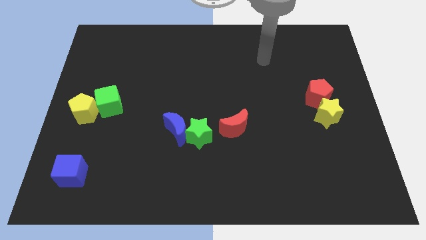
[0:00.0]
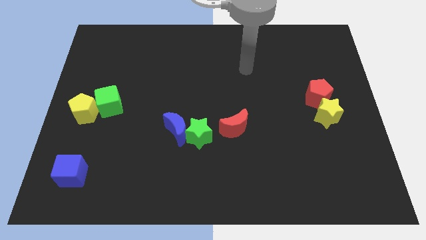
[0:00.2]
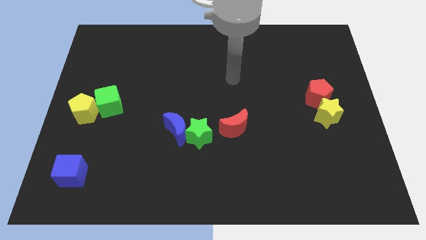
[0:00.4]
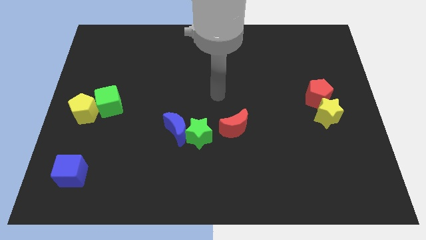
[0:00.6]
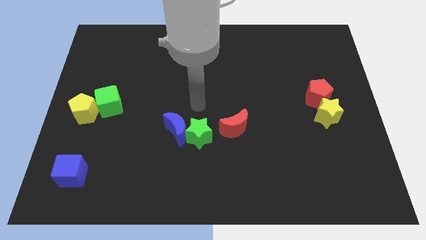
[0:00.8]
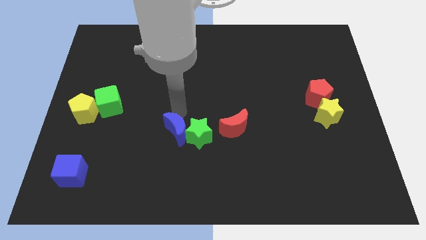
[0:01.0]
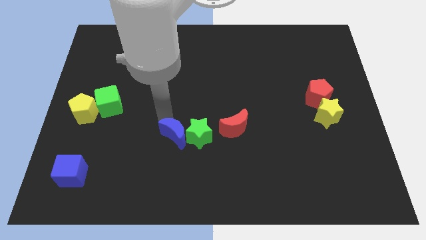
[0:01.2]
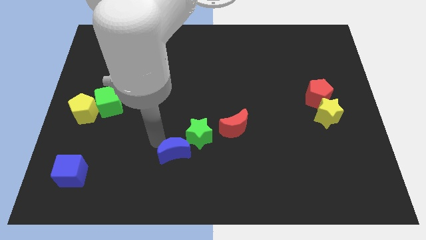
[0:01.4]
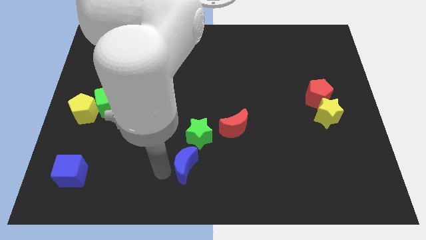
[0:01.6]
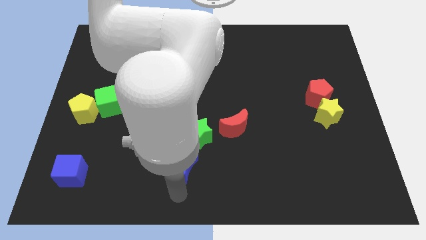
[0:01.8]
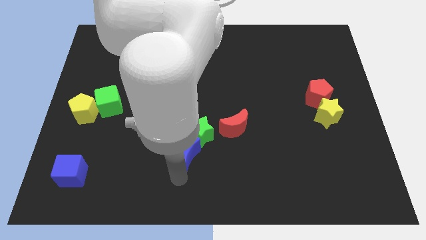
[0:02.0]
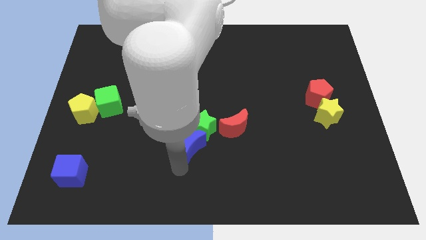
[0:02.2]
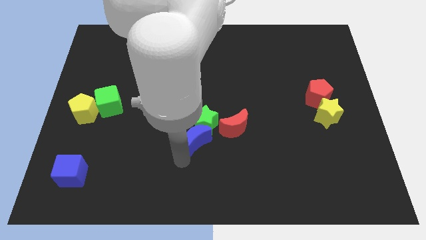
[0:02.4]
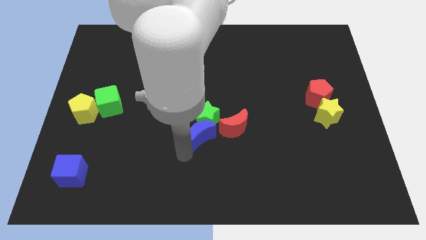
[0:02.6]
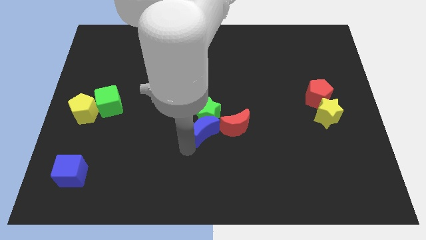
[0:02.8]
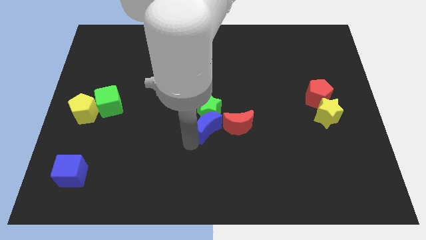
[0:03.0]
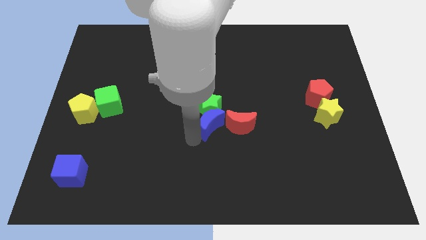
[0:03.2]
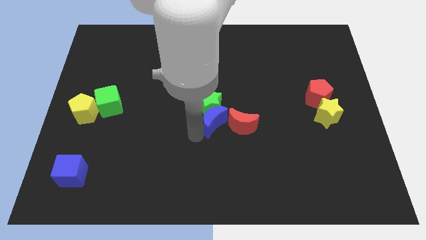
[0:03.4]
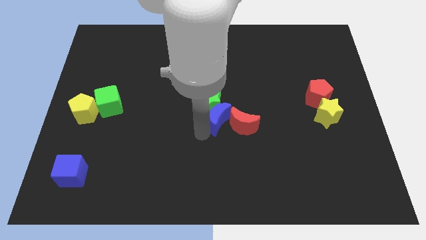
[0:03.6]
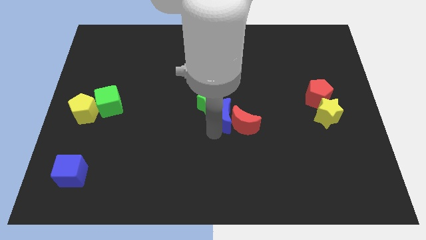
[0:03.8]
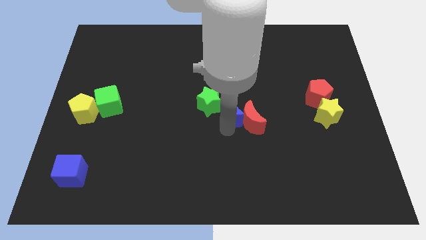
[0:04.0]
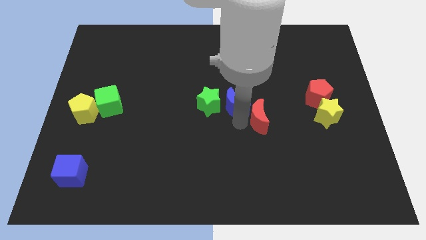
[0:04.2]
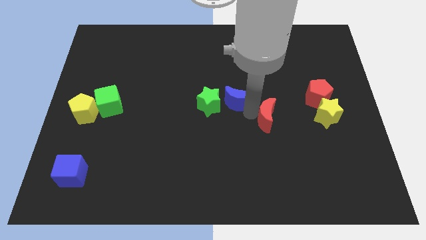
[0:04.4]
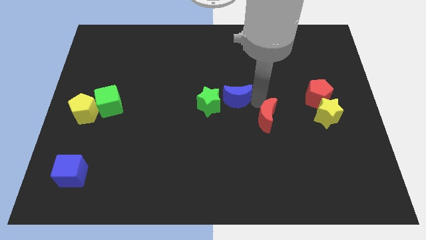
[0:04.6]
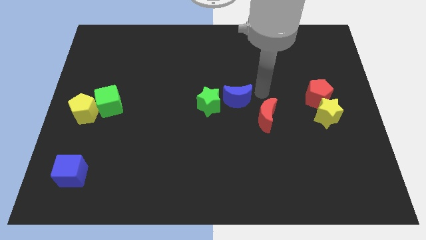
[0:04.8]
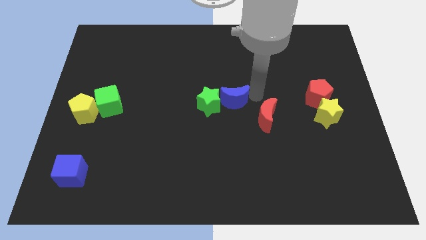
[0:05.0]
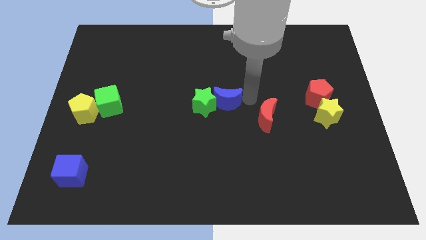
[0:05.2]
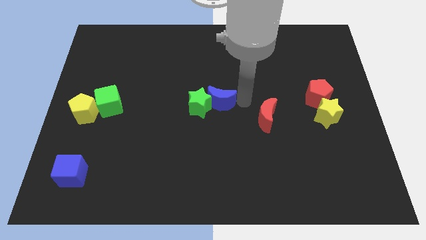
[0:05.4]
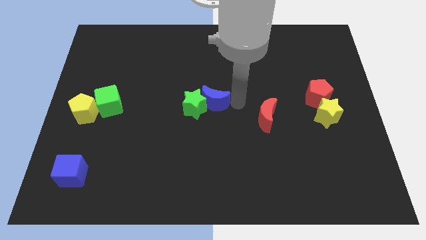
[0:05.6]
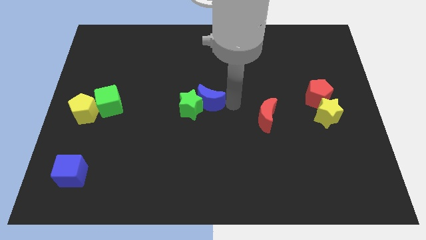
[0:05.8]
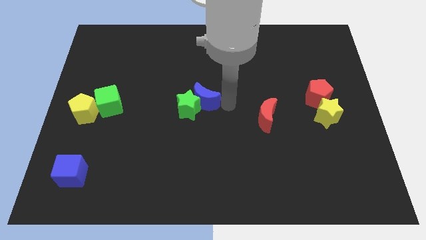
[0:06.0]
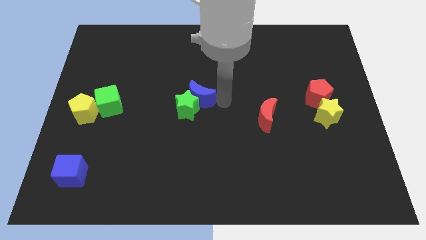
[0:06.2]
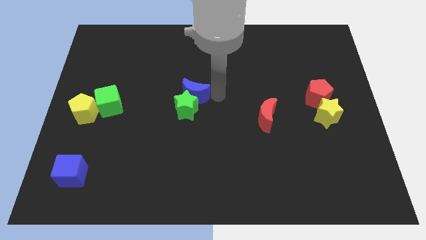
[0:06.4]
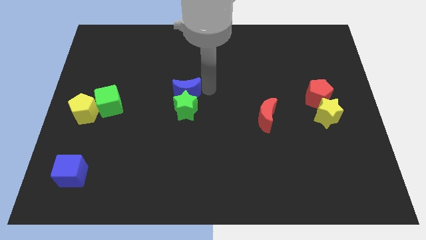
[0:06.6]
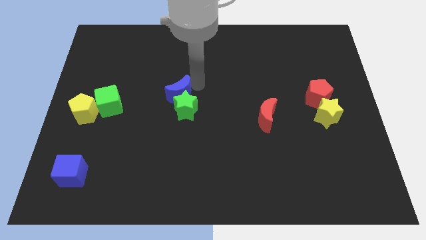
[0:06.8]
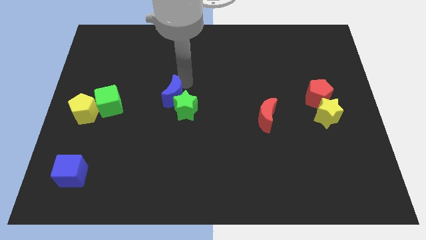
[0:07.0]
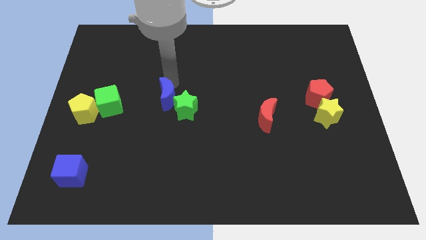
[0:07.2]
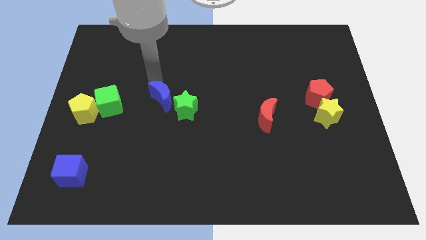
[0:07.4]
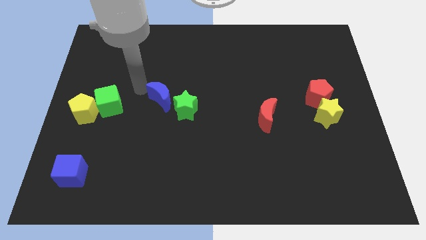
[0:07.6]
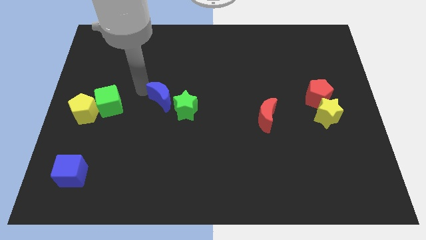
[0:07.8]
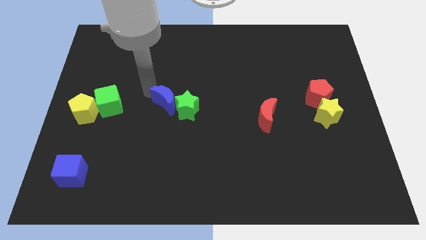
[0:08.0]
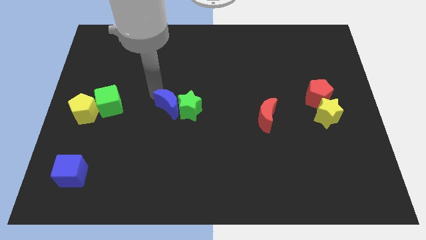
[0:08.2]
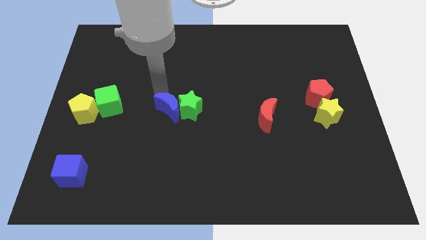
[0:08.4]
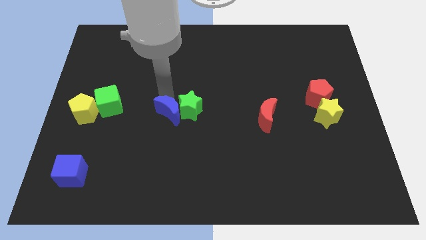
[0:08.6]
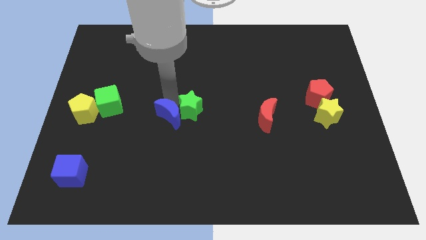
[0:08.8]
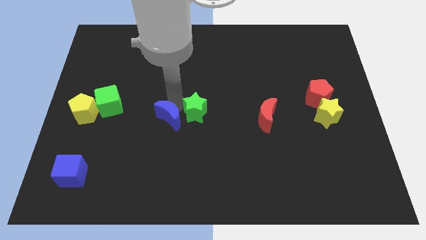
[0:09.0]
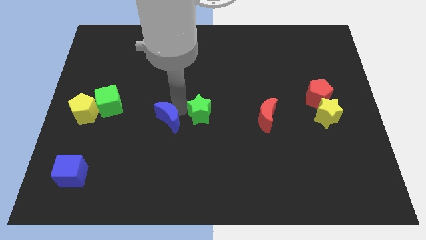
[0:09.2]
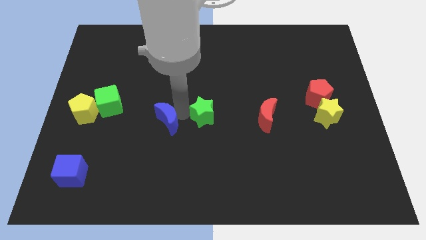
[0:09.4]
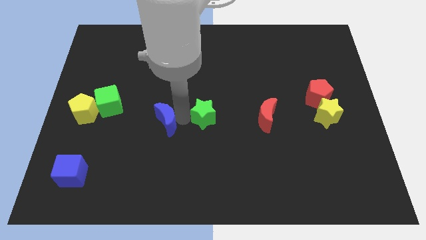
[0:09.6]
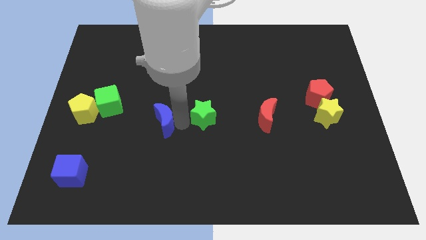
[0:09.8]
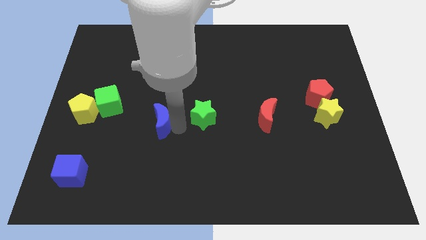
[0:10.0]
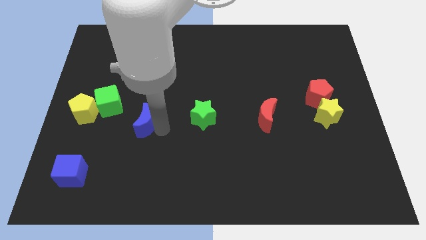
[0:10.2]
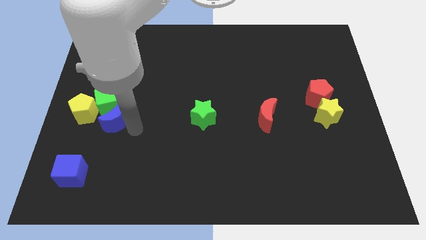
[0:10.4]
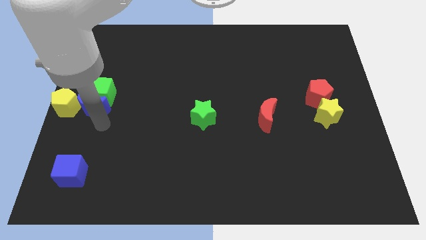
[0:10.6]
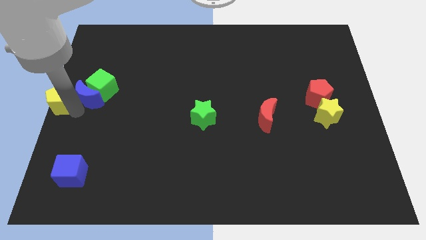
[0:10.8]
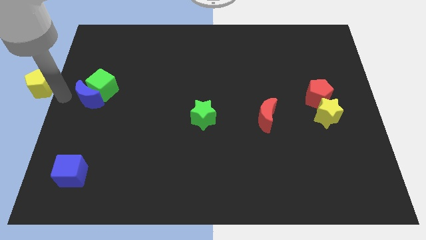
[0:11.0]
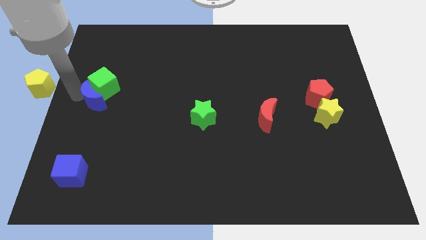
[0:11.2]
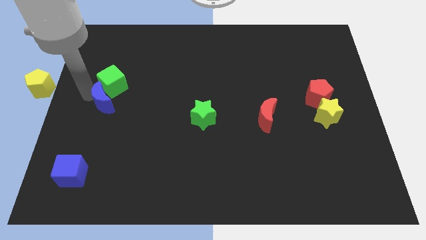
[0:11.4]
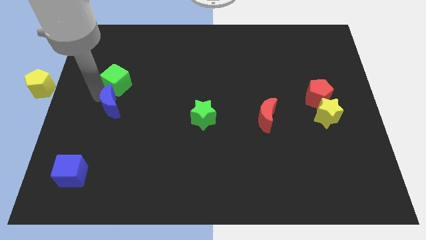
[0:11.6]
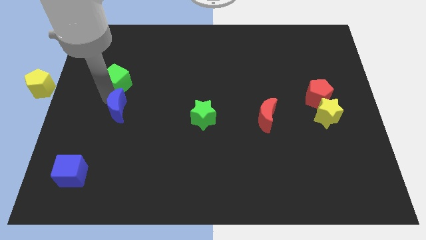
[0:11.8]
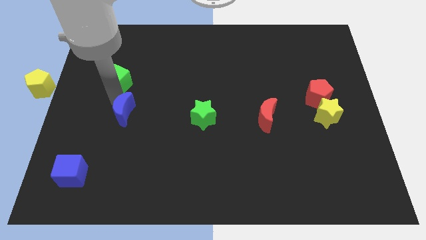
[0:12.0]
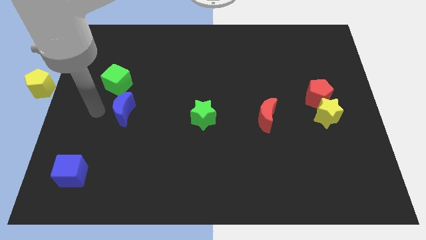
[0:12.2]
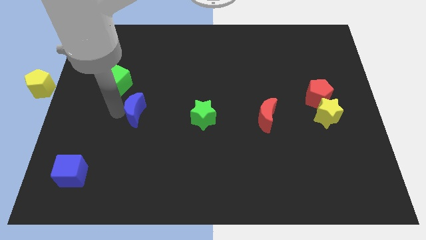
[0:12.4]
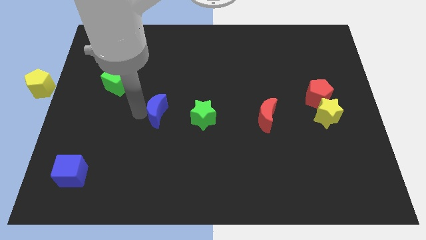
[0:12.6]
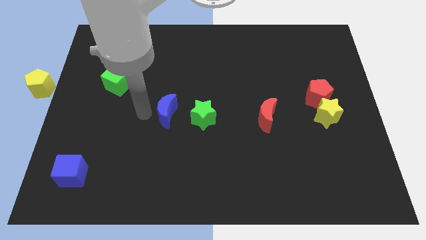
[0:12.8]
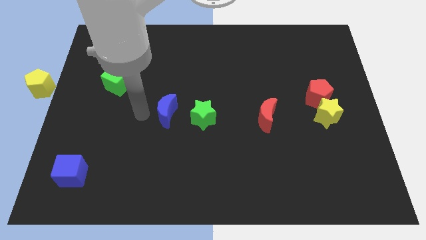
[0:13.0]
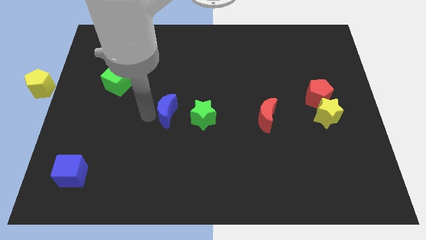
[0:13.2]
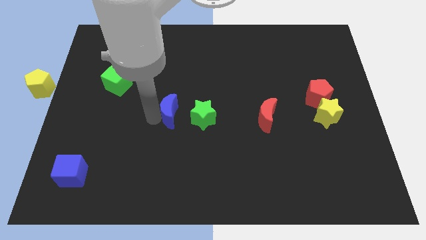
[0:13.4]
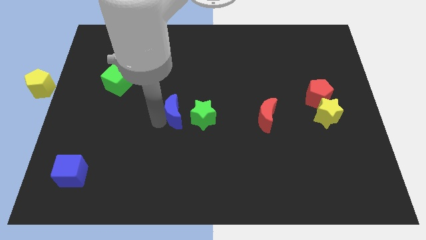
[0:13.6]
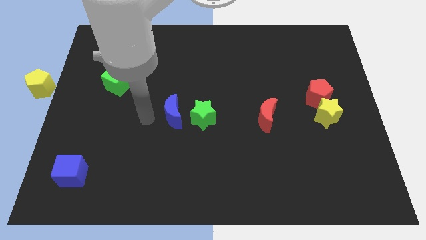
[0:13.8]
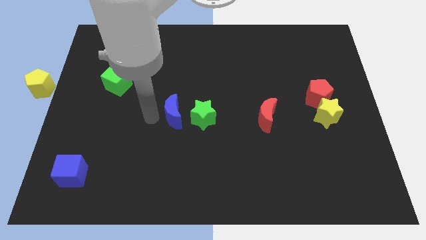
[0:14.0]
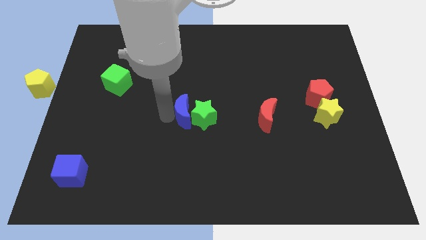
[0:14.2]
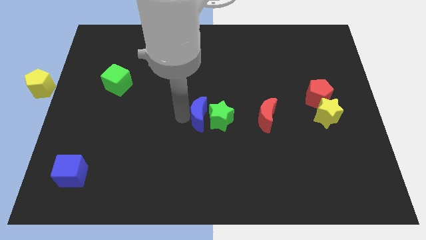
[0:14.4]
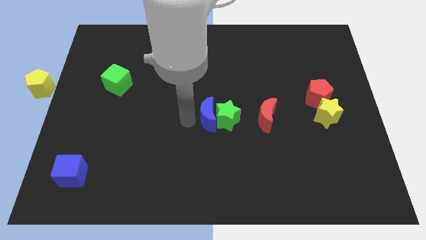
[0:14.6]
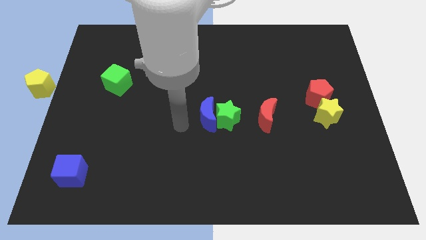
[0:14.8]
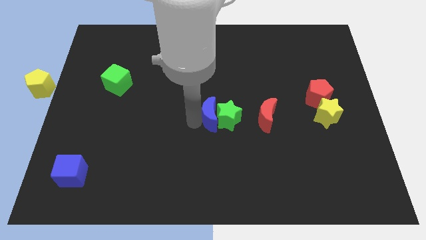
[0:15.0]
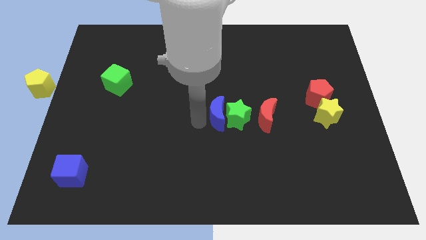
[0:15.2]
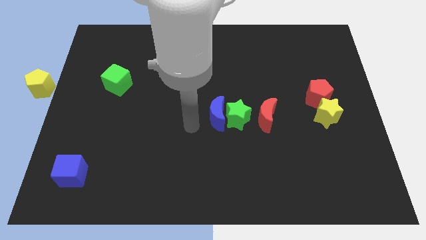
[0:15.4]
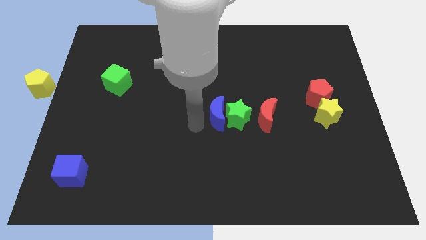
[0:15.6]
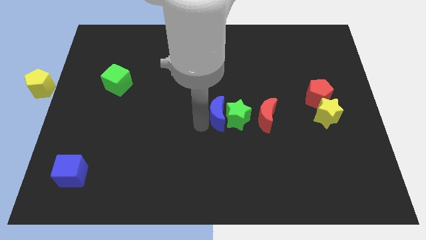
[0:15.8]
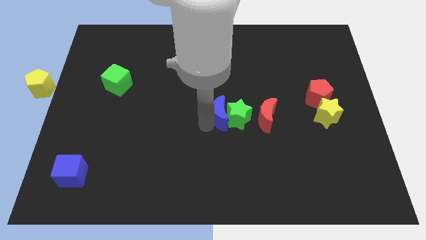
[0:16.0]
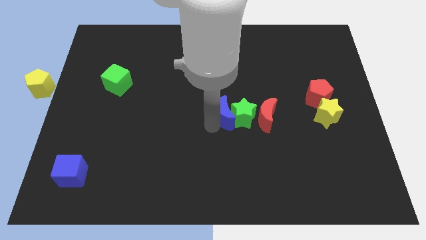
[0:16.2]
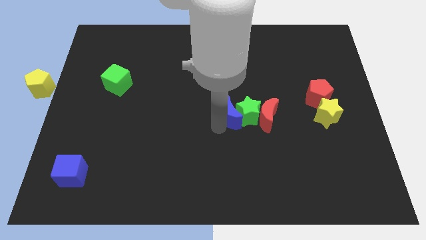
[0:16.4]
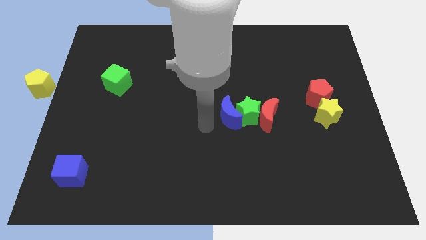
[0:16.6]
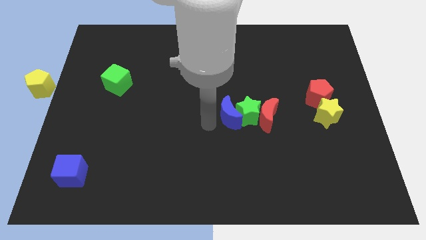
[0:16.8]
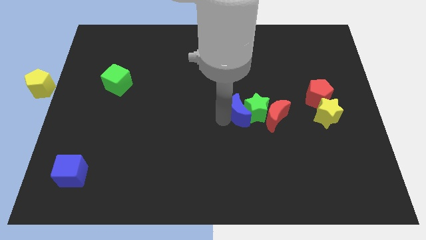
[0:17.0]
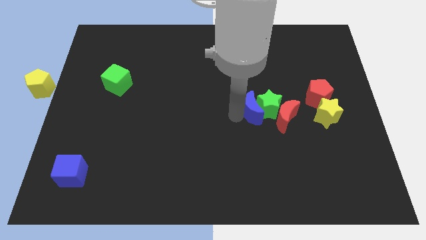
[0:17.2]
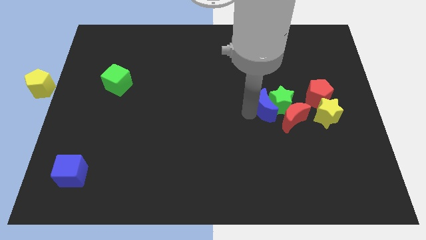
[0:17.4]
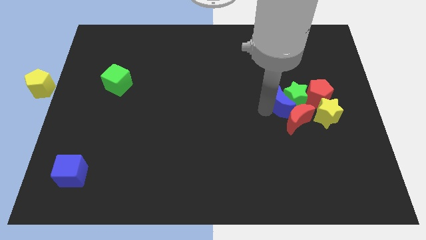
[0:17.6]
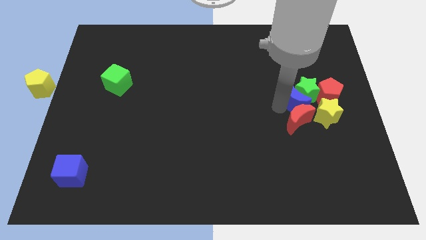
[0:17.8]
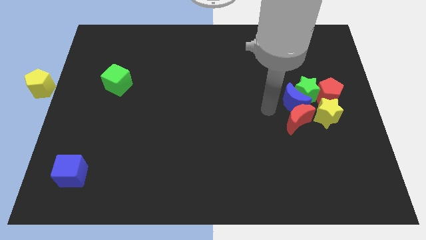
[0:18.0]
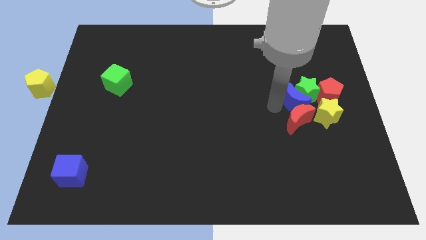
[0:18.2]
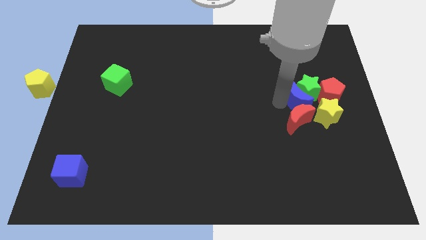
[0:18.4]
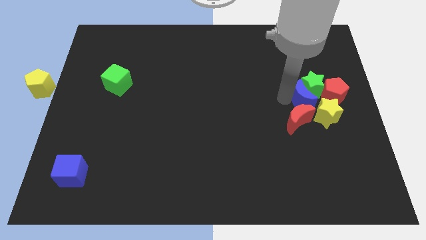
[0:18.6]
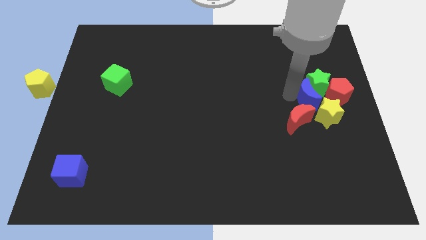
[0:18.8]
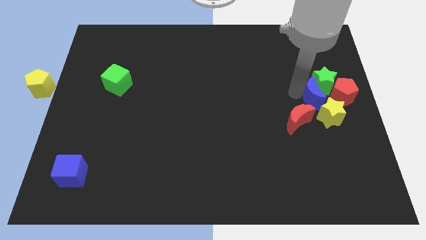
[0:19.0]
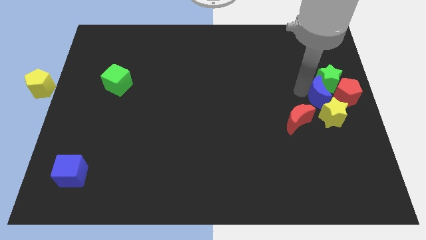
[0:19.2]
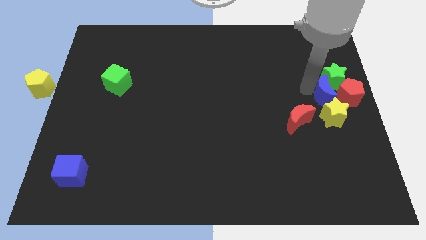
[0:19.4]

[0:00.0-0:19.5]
slide the blue moon next to the red pentagon
